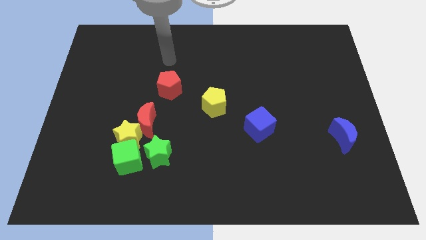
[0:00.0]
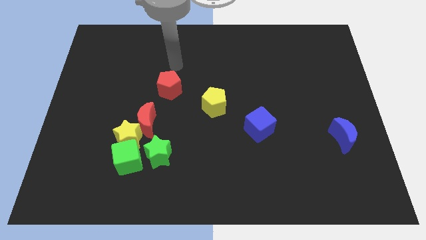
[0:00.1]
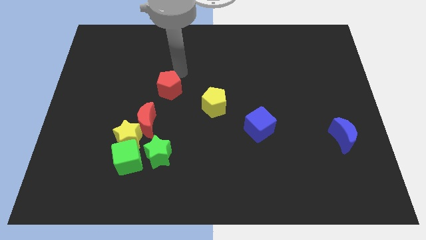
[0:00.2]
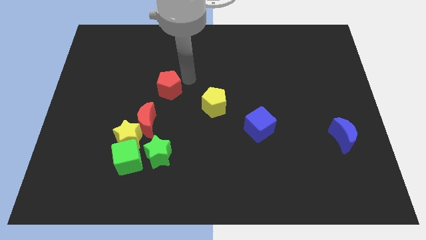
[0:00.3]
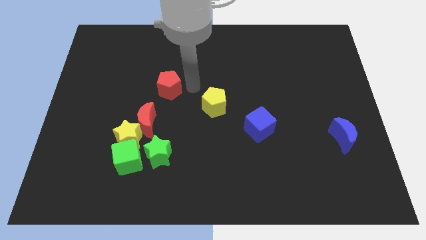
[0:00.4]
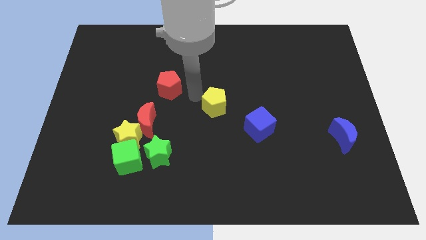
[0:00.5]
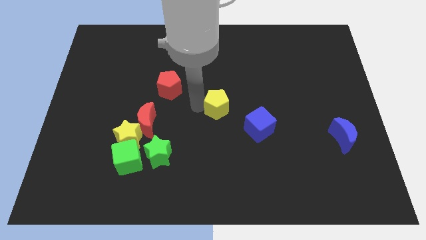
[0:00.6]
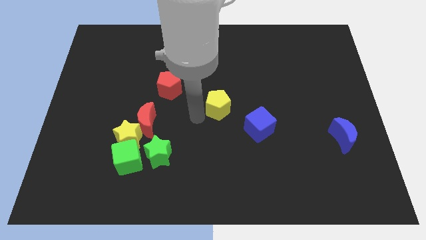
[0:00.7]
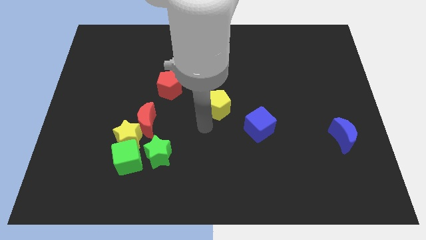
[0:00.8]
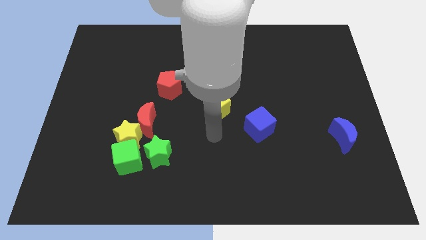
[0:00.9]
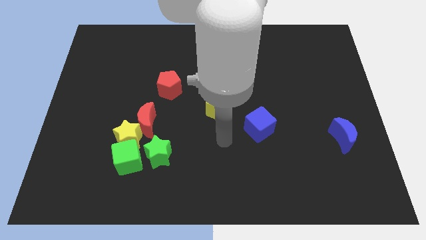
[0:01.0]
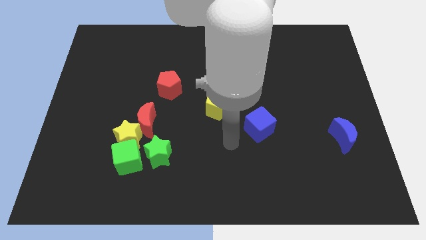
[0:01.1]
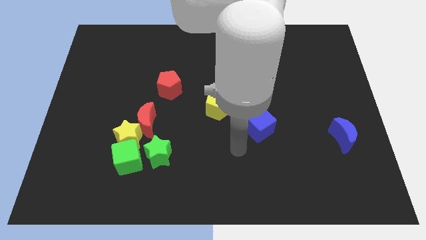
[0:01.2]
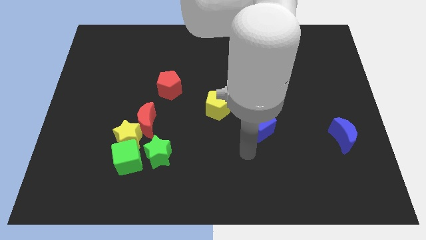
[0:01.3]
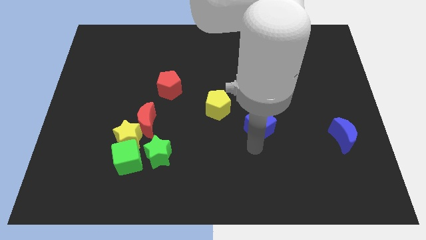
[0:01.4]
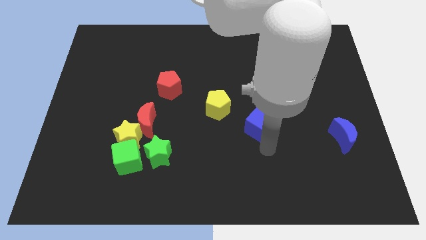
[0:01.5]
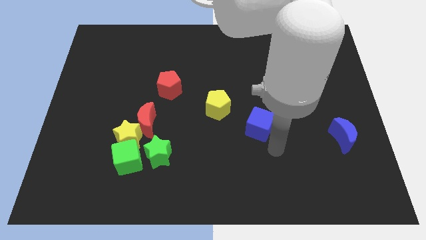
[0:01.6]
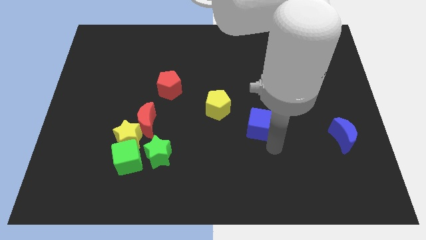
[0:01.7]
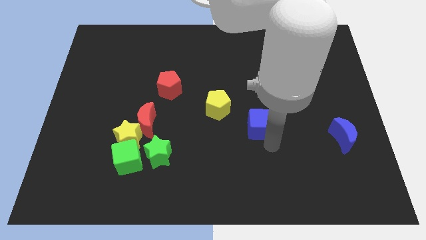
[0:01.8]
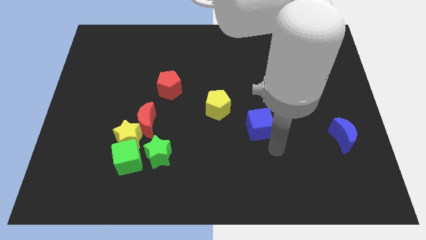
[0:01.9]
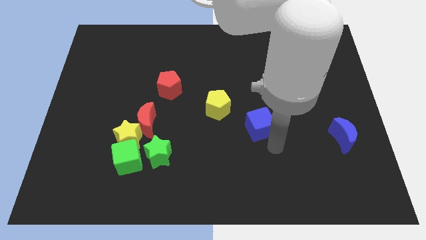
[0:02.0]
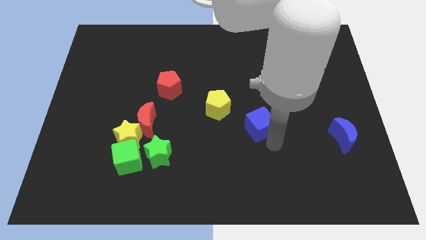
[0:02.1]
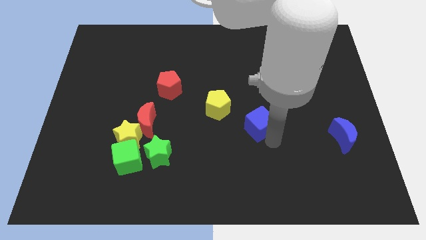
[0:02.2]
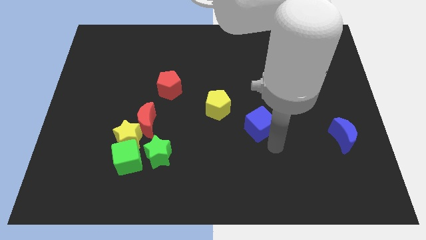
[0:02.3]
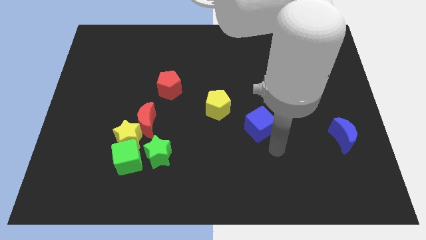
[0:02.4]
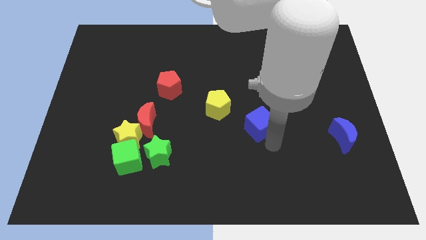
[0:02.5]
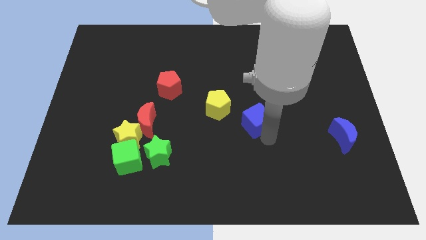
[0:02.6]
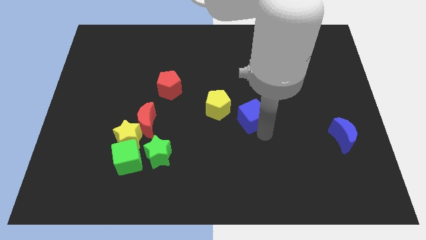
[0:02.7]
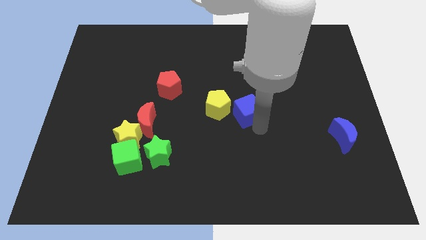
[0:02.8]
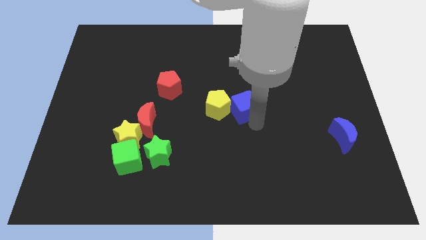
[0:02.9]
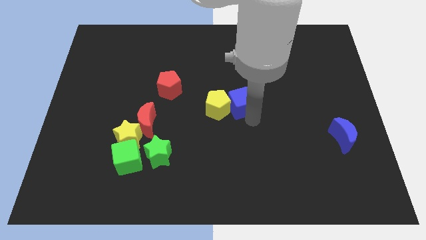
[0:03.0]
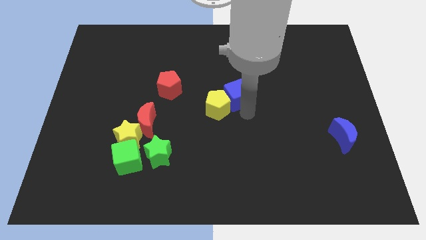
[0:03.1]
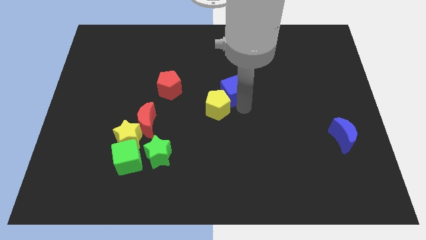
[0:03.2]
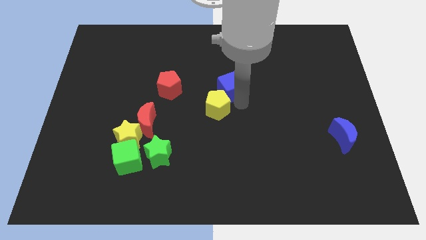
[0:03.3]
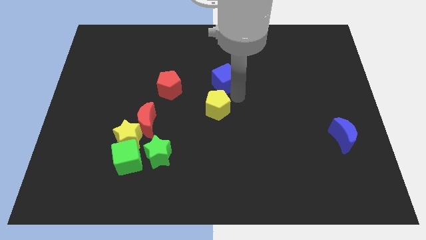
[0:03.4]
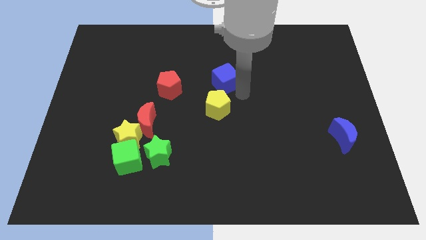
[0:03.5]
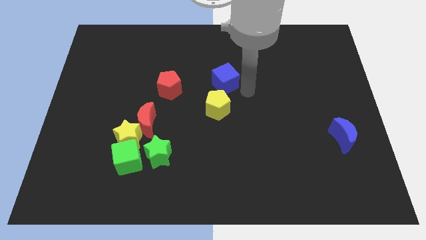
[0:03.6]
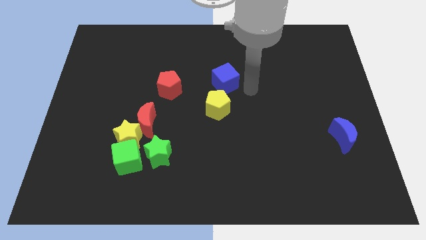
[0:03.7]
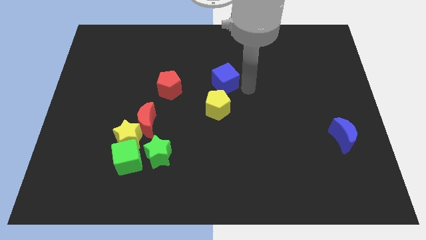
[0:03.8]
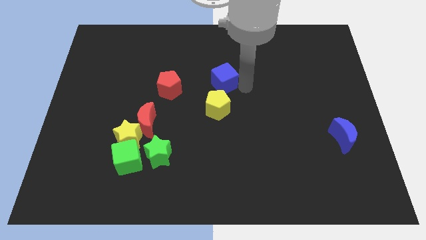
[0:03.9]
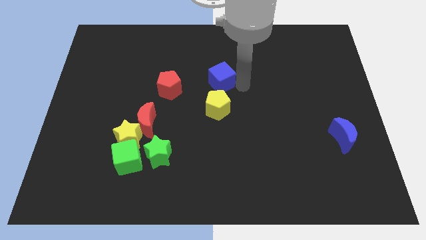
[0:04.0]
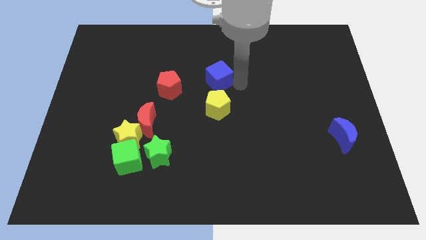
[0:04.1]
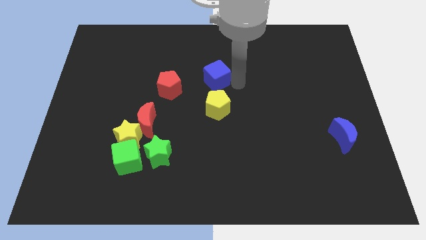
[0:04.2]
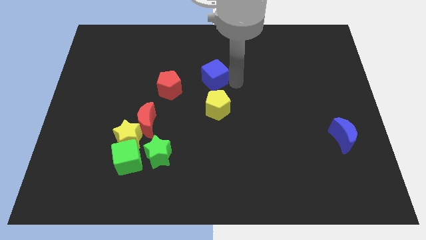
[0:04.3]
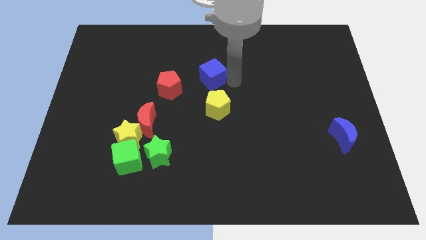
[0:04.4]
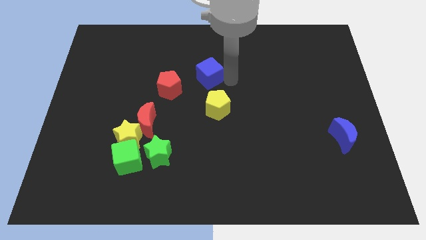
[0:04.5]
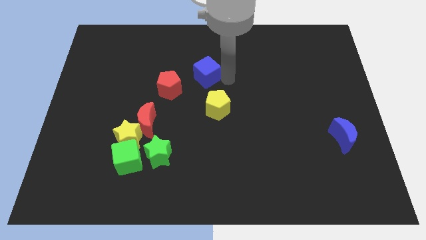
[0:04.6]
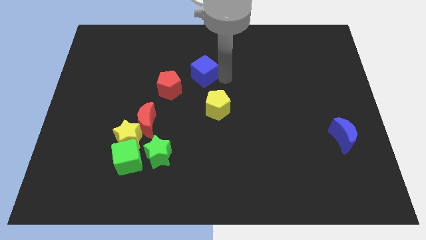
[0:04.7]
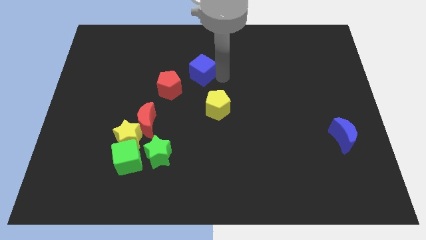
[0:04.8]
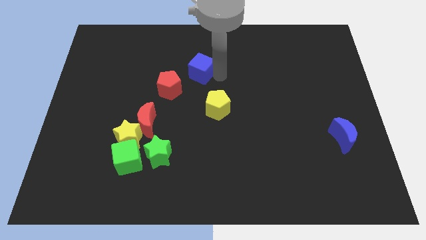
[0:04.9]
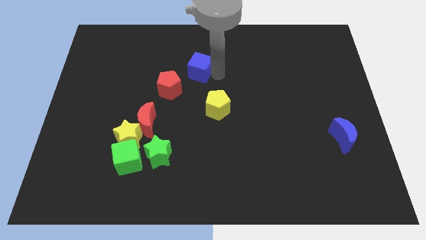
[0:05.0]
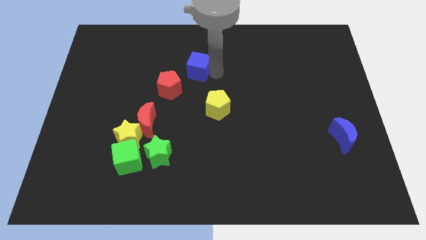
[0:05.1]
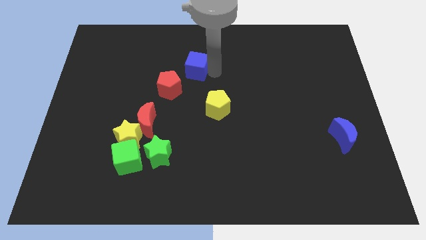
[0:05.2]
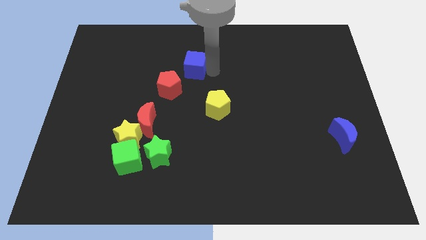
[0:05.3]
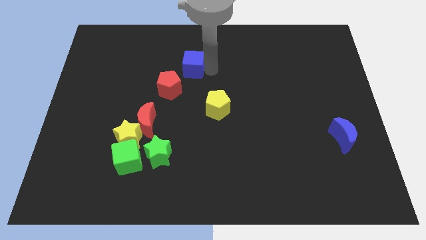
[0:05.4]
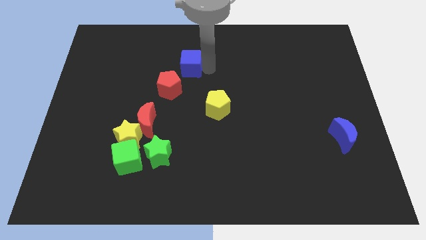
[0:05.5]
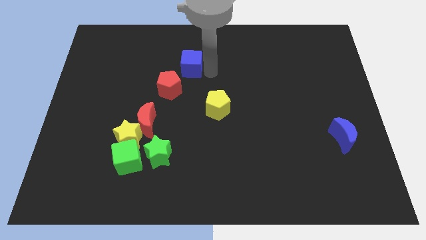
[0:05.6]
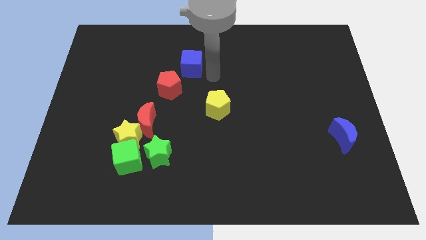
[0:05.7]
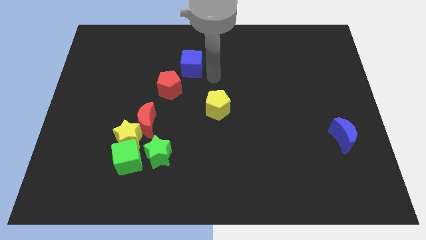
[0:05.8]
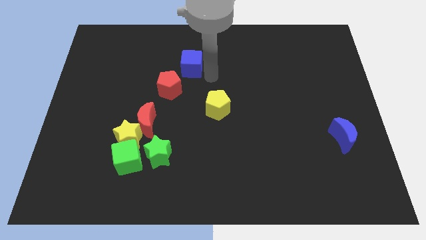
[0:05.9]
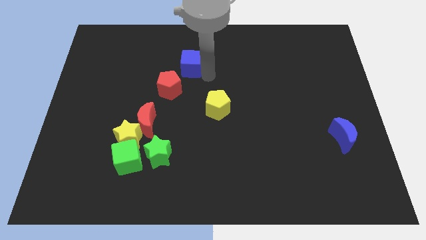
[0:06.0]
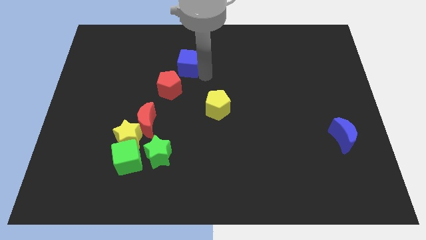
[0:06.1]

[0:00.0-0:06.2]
push the blue cube above the red pentagon

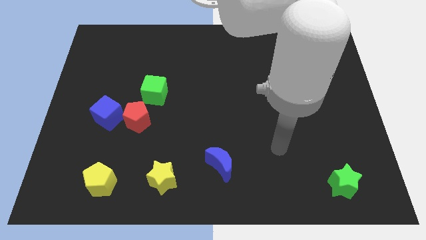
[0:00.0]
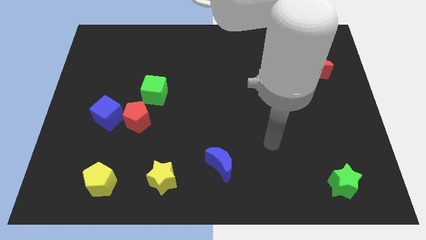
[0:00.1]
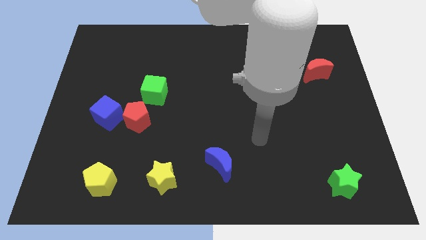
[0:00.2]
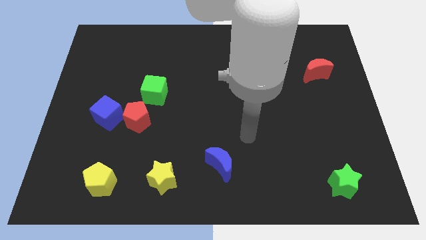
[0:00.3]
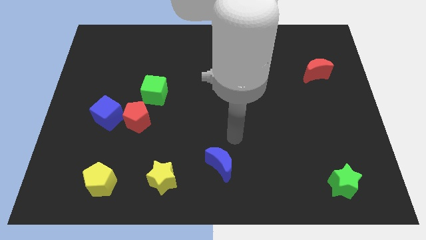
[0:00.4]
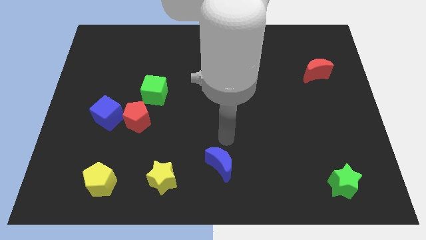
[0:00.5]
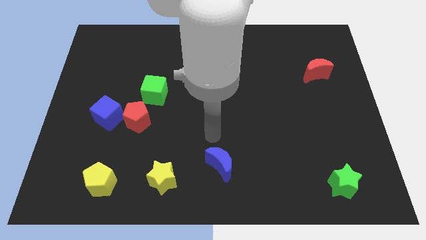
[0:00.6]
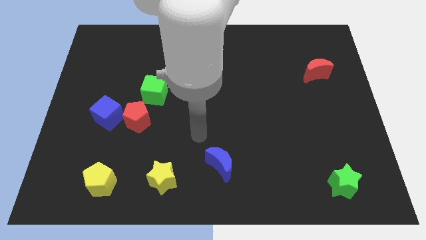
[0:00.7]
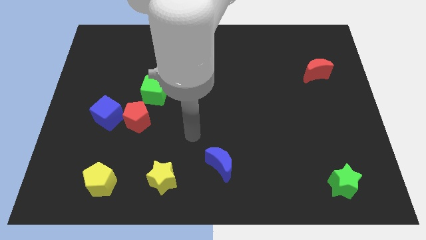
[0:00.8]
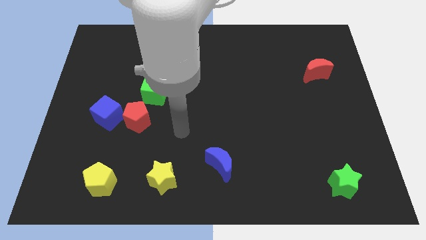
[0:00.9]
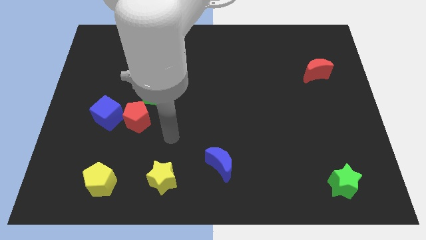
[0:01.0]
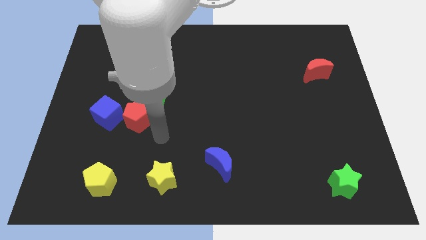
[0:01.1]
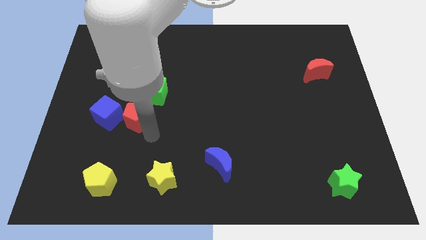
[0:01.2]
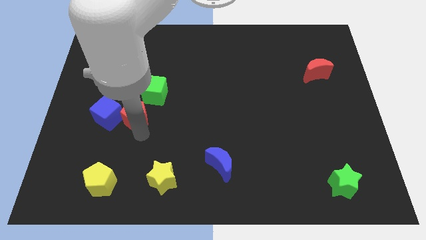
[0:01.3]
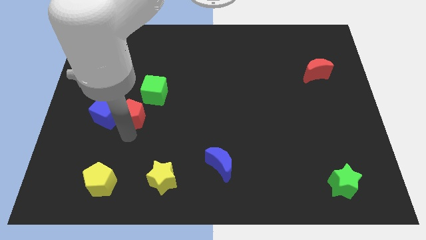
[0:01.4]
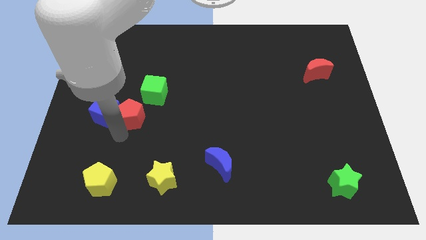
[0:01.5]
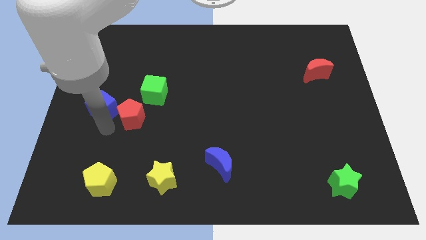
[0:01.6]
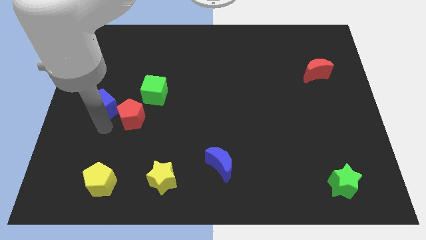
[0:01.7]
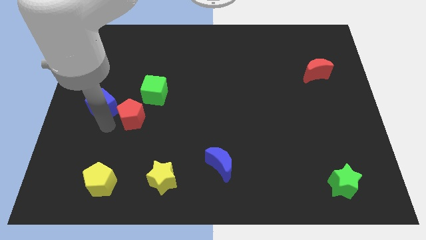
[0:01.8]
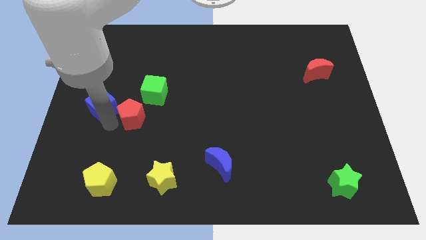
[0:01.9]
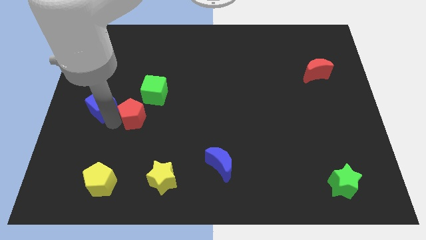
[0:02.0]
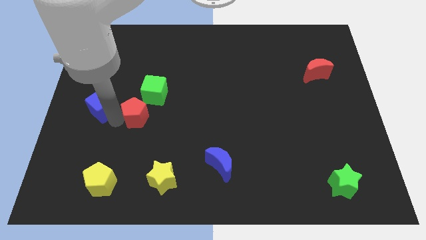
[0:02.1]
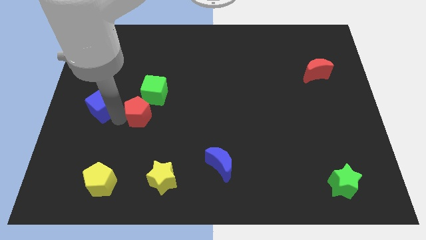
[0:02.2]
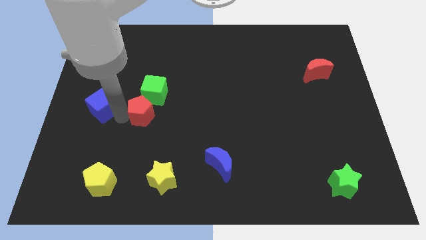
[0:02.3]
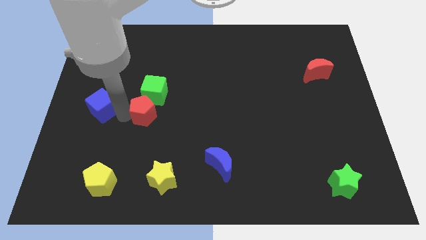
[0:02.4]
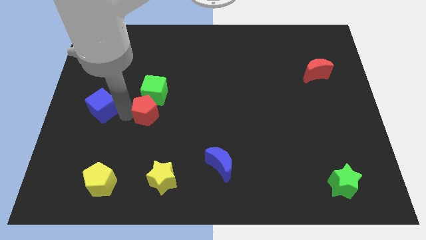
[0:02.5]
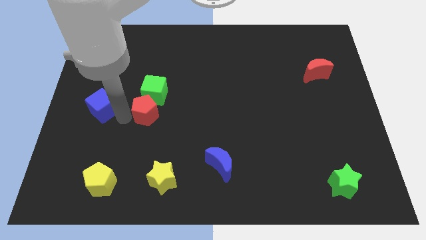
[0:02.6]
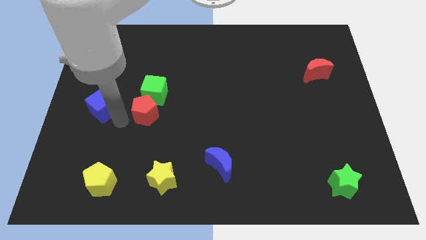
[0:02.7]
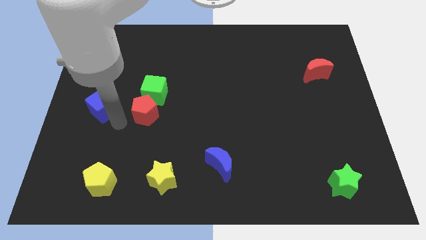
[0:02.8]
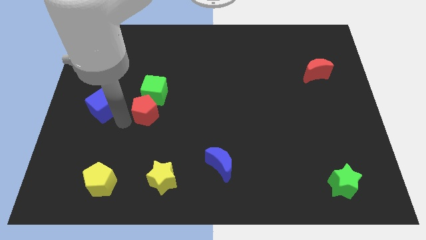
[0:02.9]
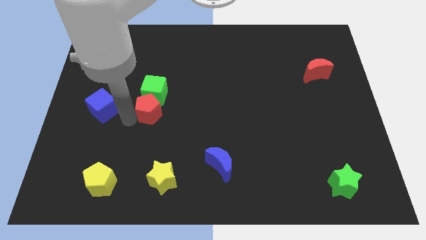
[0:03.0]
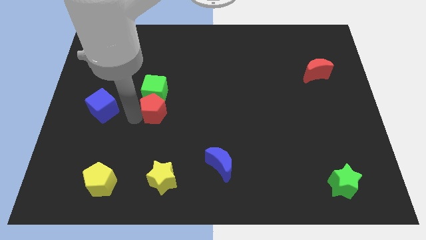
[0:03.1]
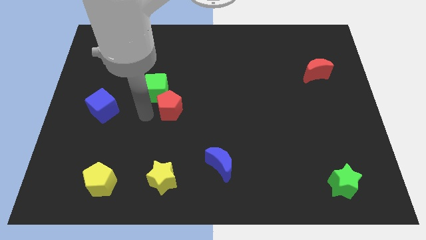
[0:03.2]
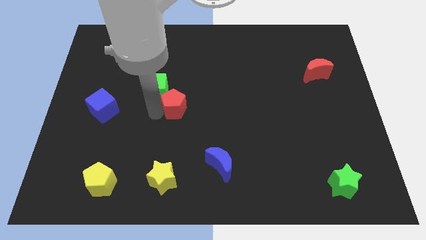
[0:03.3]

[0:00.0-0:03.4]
move the red pentagon just right of the green cube
